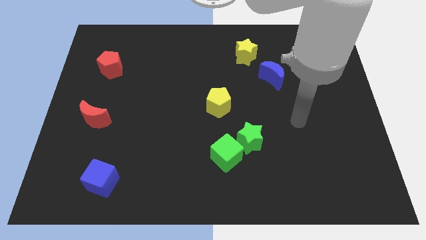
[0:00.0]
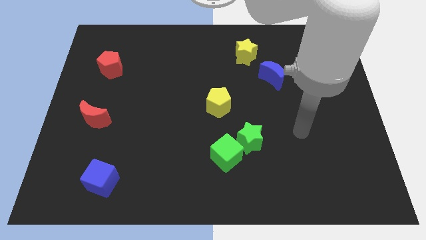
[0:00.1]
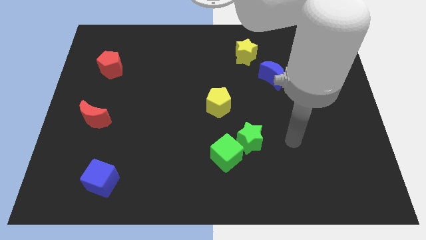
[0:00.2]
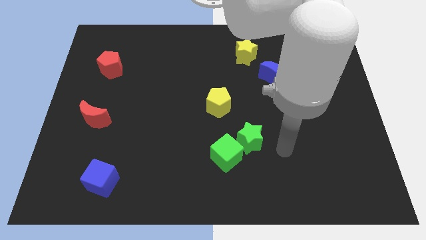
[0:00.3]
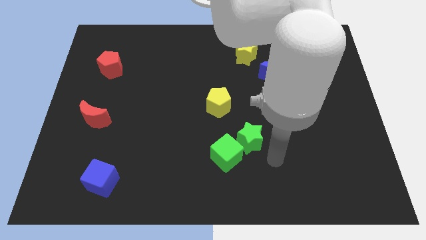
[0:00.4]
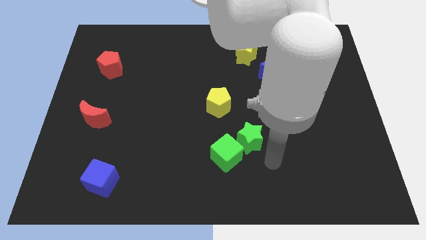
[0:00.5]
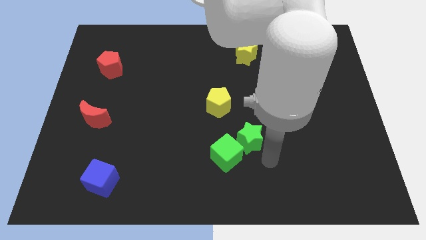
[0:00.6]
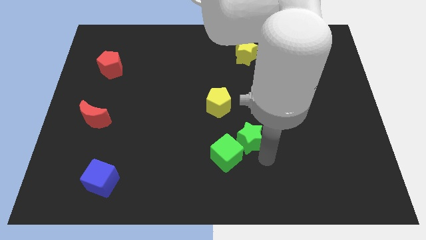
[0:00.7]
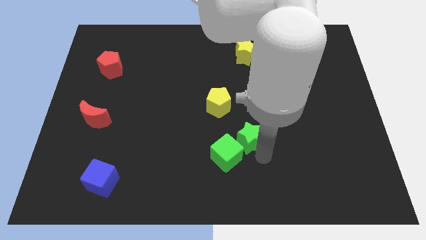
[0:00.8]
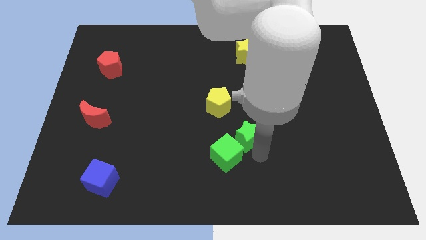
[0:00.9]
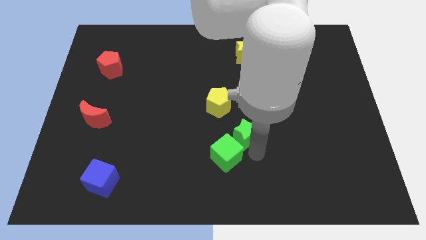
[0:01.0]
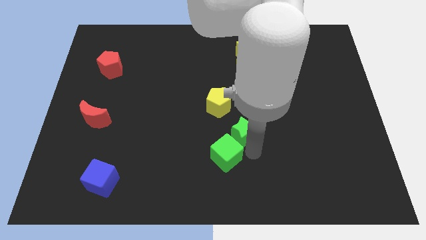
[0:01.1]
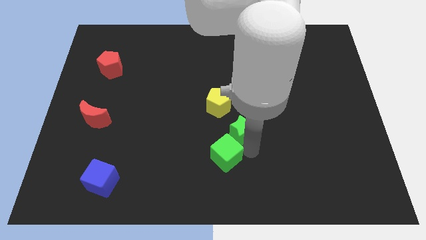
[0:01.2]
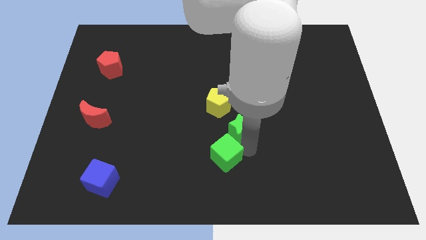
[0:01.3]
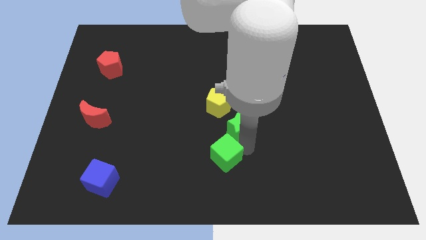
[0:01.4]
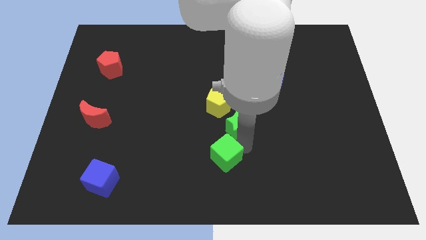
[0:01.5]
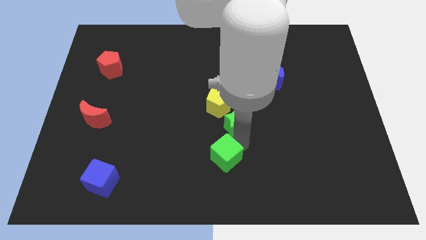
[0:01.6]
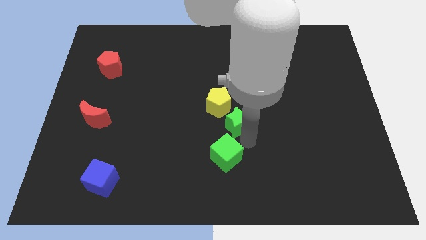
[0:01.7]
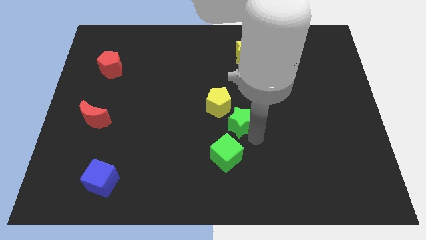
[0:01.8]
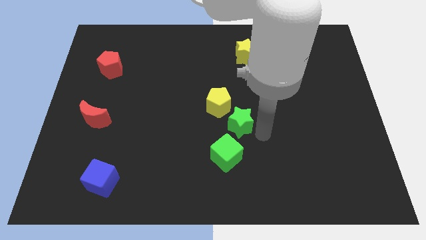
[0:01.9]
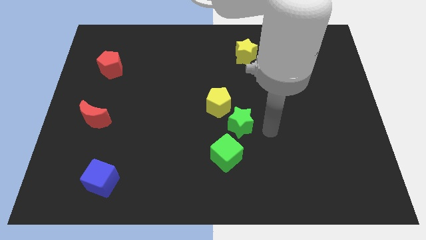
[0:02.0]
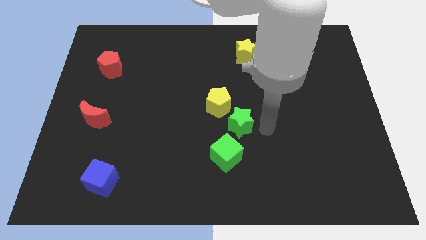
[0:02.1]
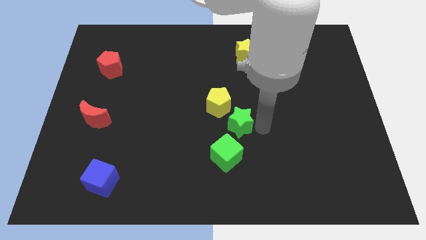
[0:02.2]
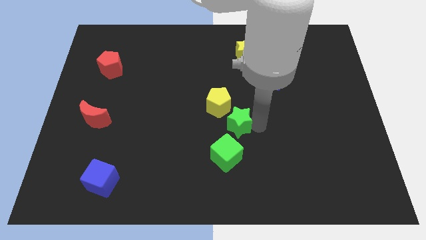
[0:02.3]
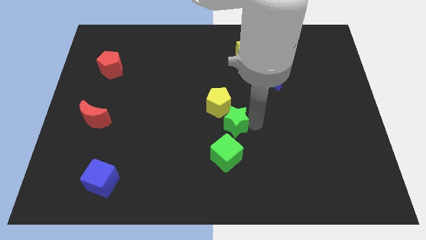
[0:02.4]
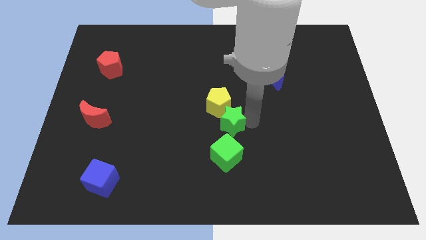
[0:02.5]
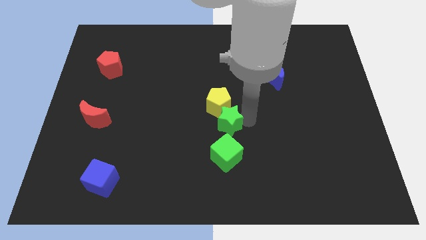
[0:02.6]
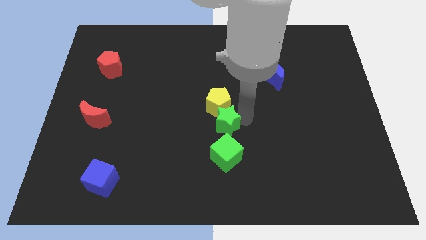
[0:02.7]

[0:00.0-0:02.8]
slightly push the green star up and then left

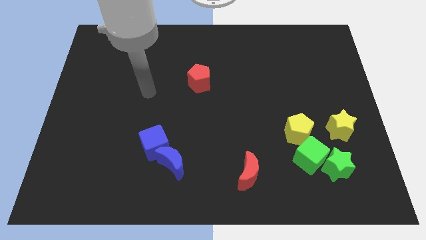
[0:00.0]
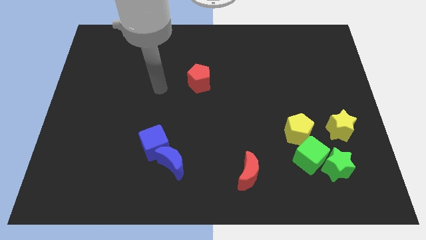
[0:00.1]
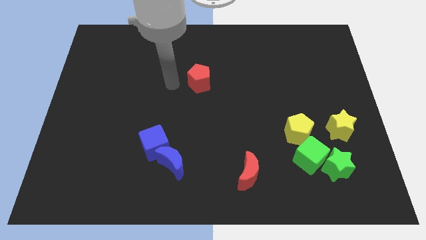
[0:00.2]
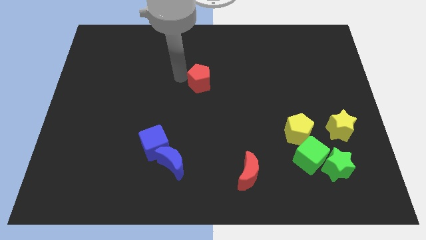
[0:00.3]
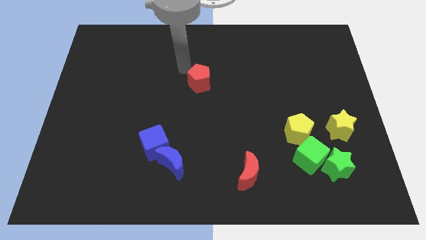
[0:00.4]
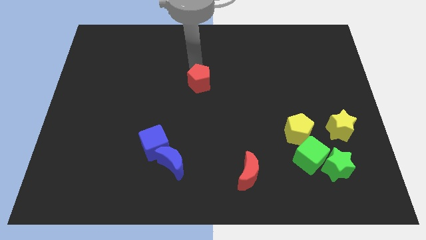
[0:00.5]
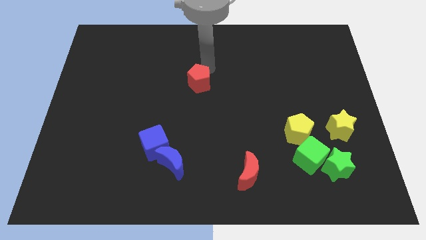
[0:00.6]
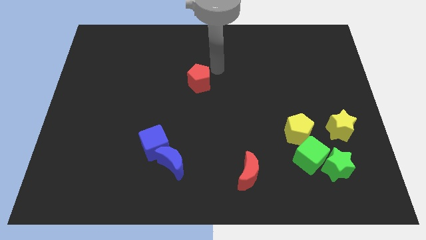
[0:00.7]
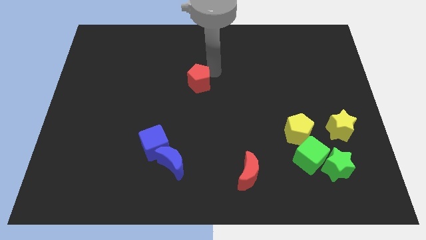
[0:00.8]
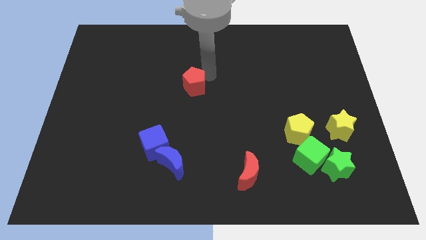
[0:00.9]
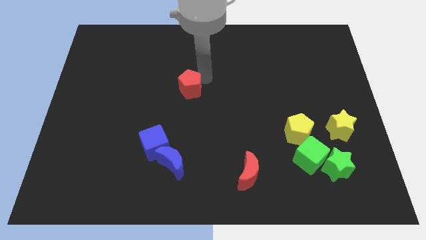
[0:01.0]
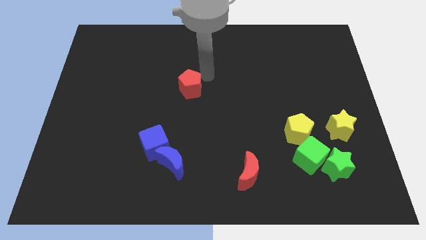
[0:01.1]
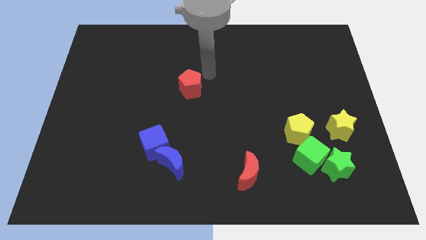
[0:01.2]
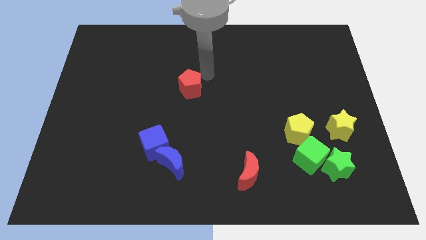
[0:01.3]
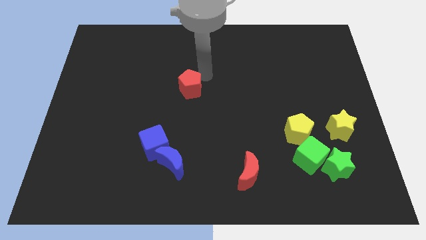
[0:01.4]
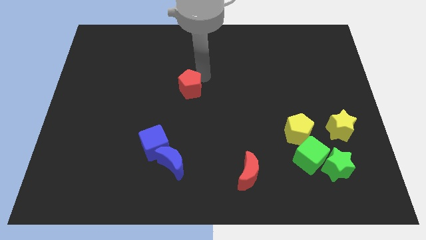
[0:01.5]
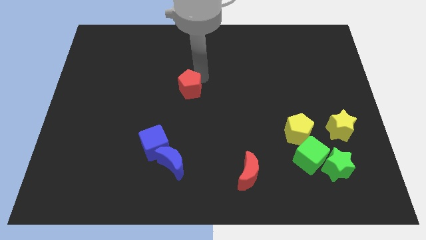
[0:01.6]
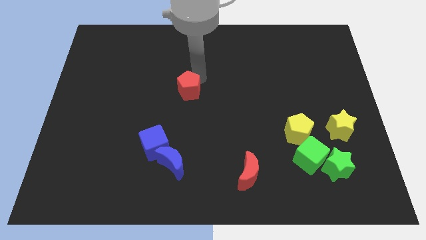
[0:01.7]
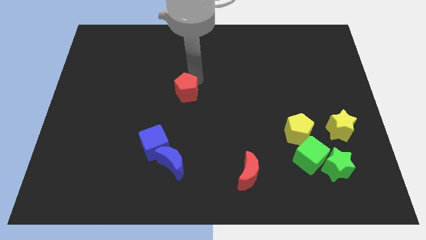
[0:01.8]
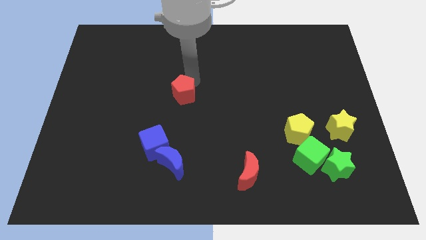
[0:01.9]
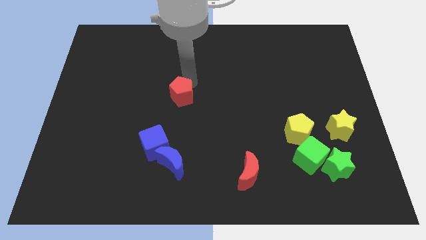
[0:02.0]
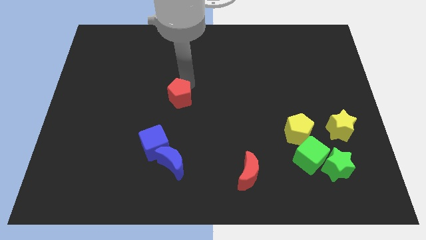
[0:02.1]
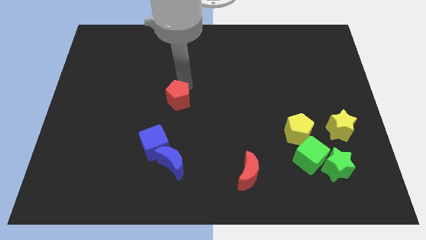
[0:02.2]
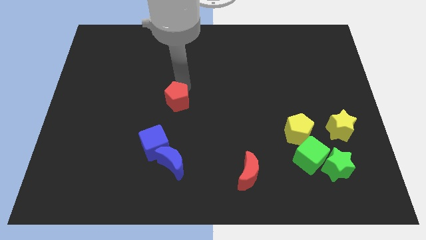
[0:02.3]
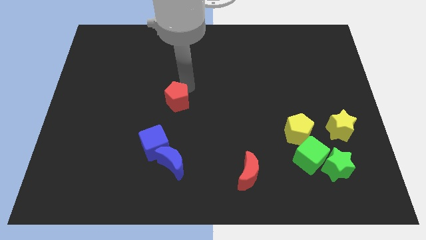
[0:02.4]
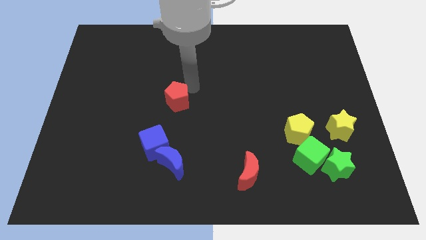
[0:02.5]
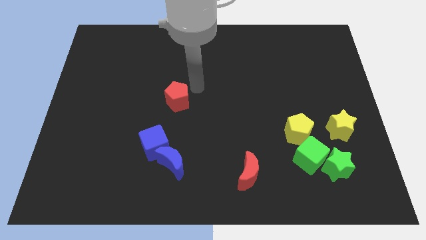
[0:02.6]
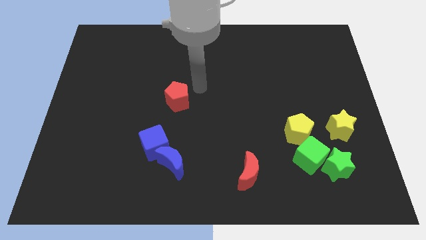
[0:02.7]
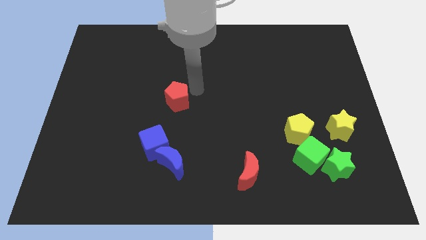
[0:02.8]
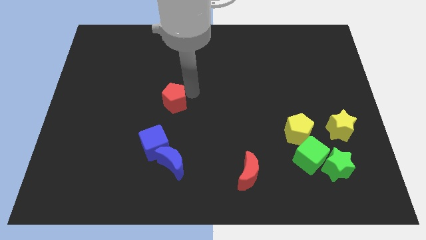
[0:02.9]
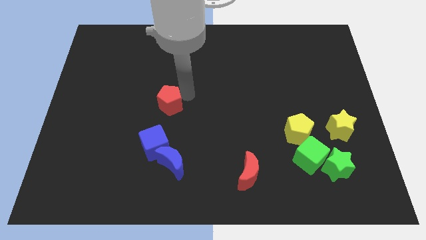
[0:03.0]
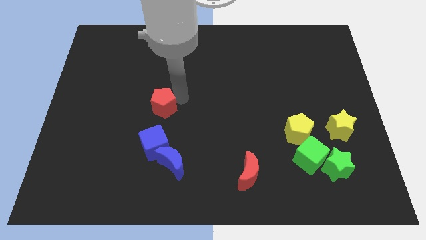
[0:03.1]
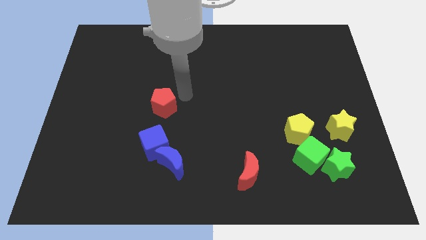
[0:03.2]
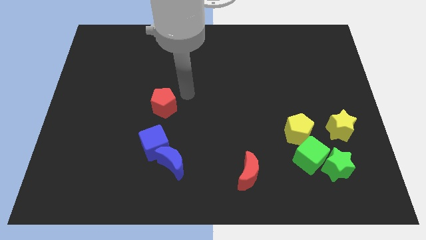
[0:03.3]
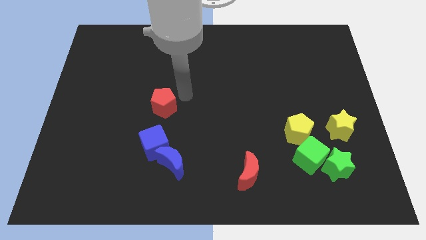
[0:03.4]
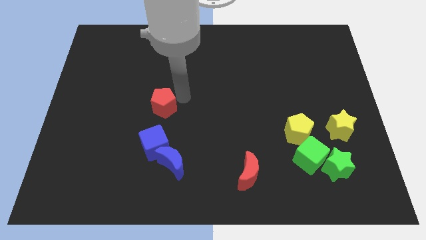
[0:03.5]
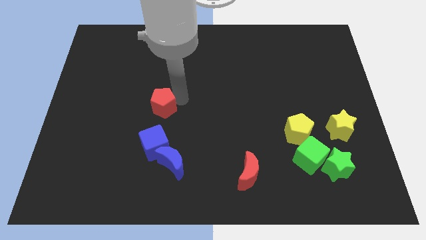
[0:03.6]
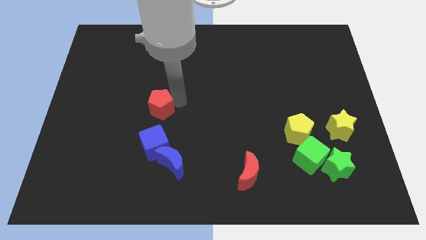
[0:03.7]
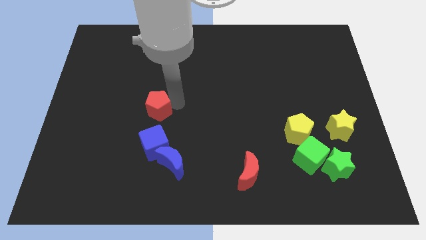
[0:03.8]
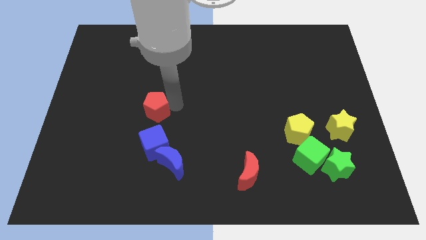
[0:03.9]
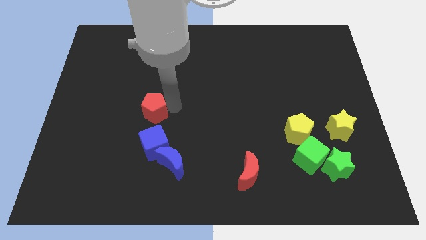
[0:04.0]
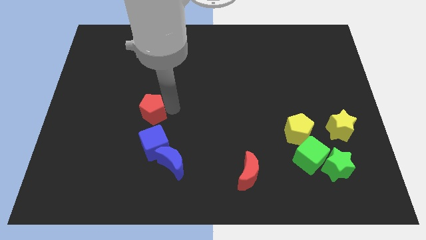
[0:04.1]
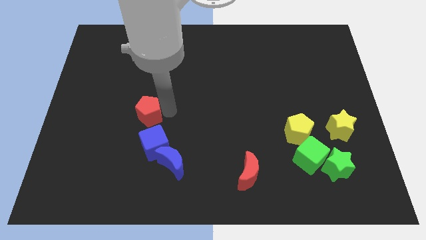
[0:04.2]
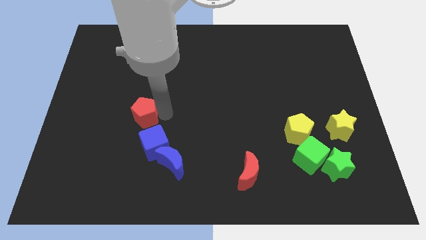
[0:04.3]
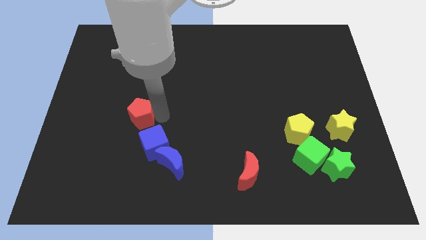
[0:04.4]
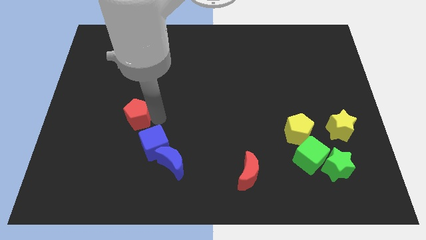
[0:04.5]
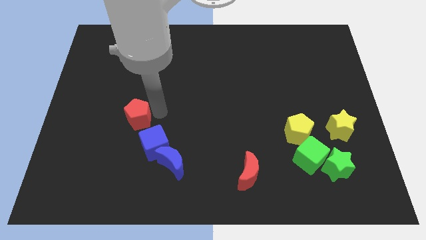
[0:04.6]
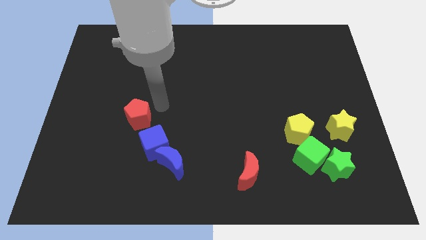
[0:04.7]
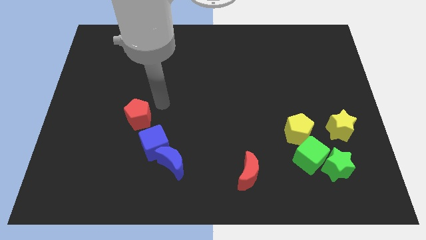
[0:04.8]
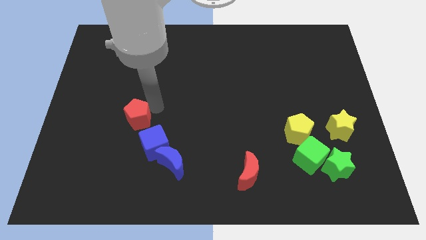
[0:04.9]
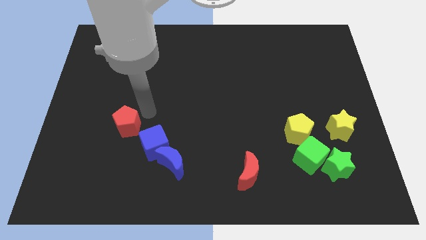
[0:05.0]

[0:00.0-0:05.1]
push the red pentagon down and left diagonally
